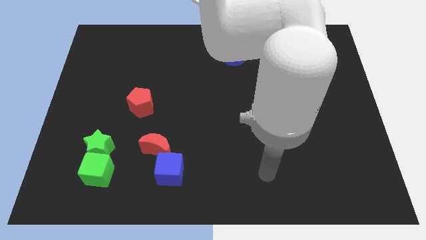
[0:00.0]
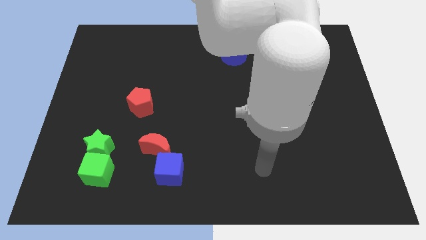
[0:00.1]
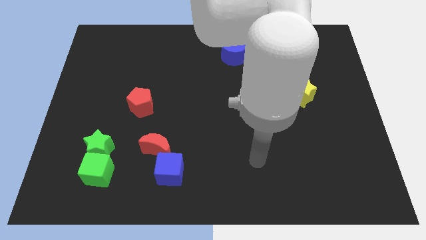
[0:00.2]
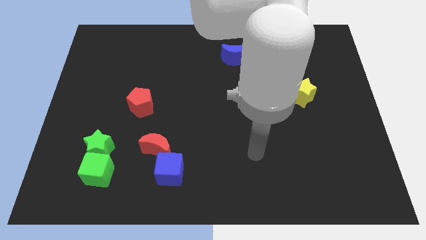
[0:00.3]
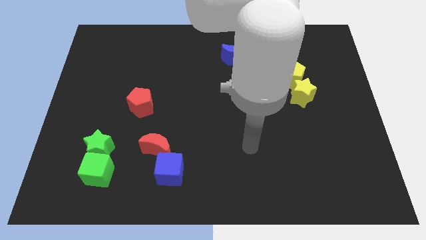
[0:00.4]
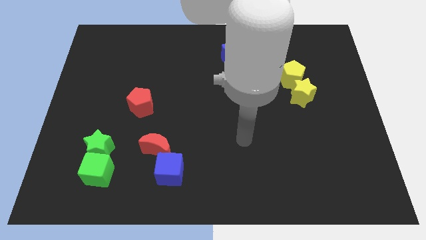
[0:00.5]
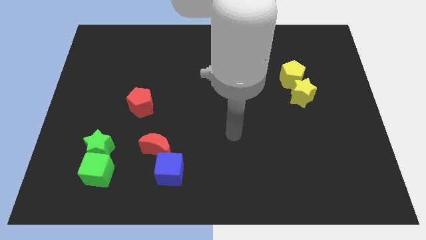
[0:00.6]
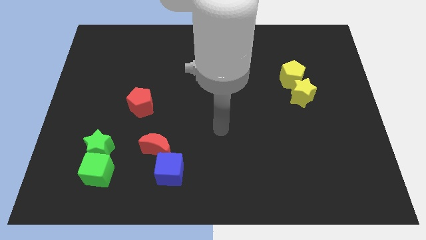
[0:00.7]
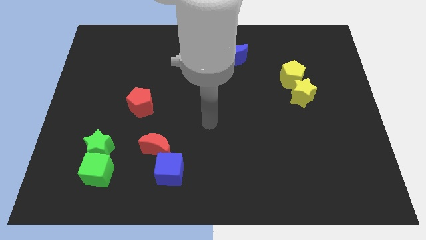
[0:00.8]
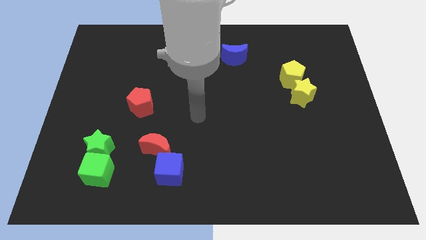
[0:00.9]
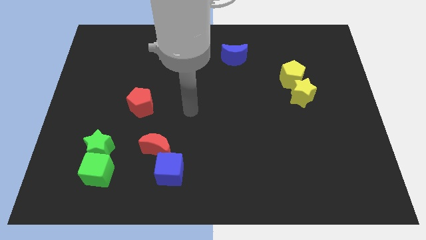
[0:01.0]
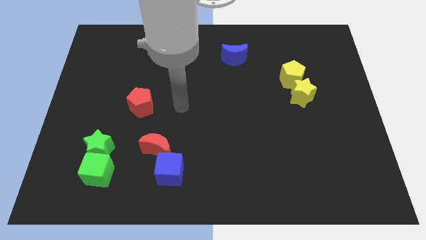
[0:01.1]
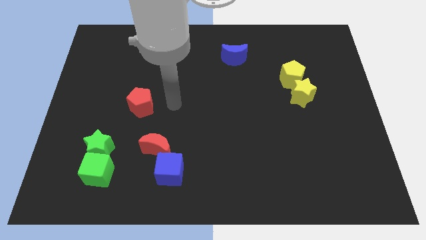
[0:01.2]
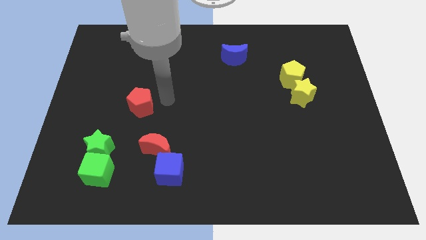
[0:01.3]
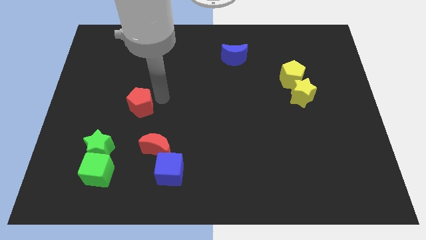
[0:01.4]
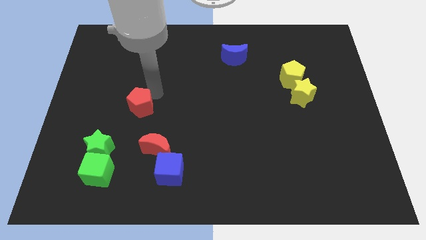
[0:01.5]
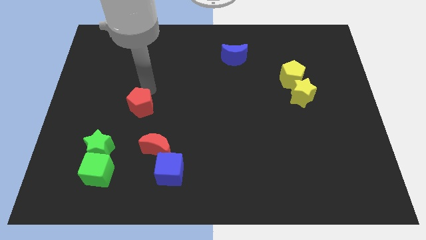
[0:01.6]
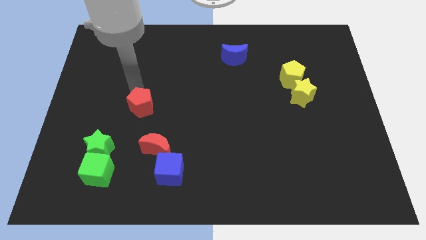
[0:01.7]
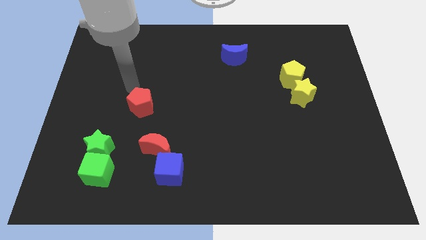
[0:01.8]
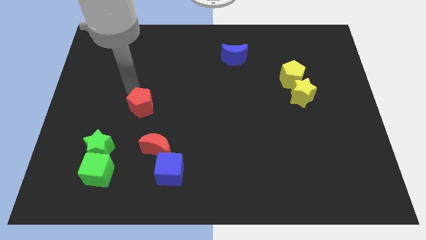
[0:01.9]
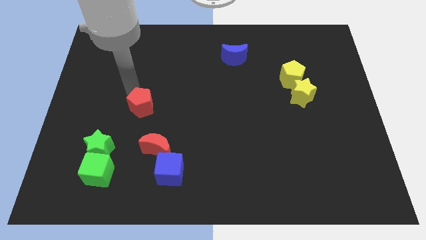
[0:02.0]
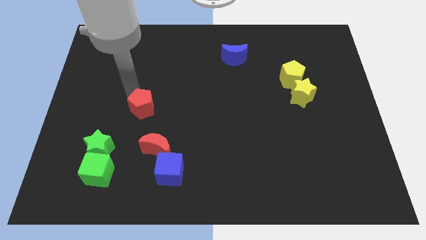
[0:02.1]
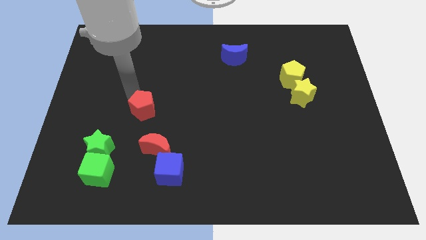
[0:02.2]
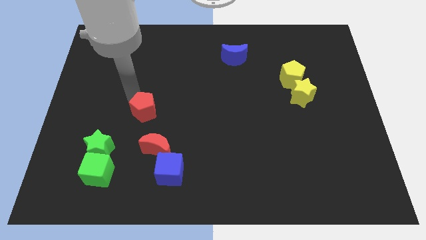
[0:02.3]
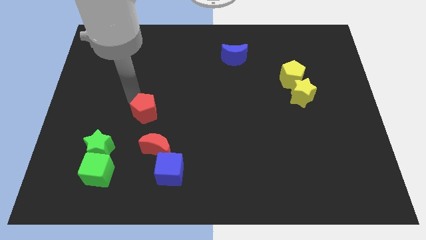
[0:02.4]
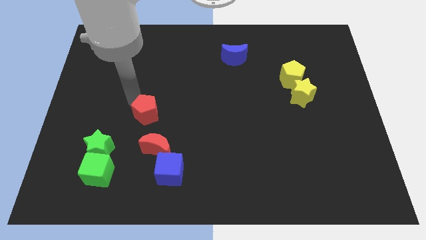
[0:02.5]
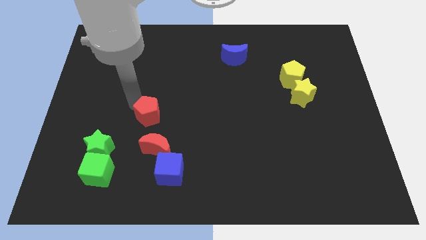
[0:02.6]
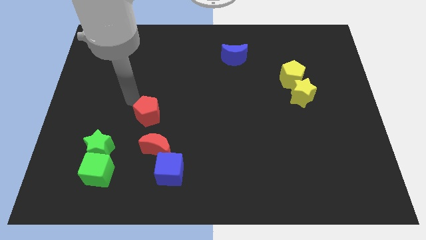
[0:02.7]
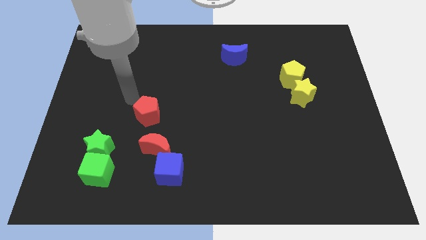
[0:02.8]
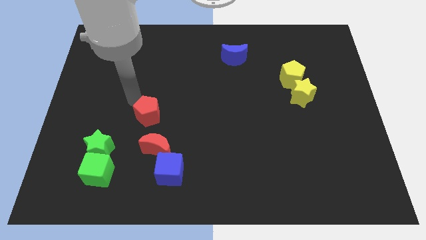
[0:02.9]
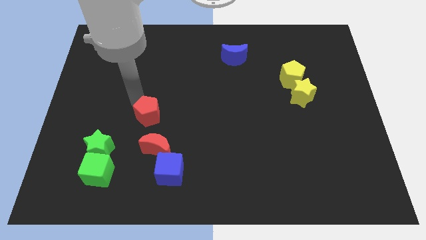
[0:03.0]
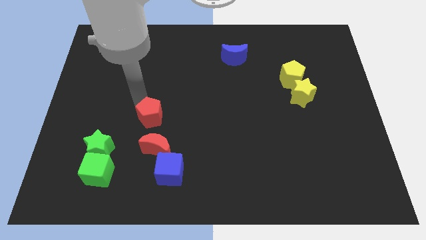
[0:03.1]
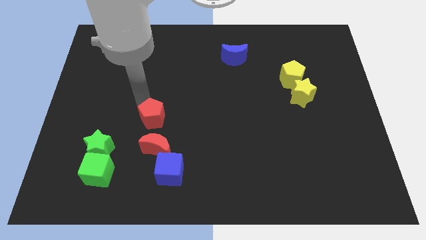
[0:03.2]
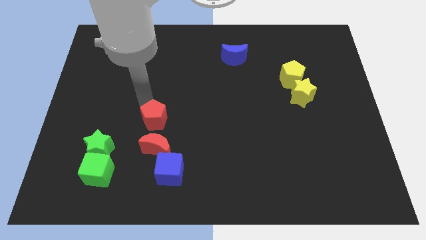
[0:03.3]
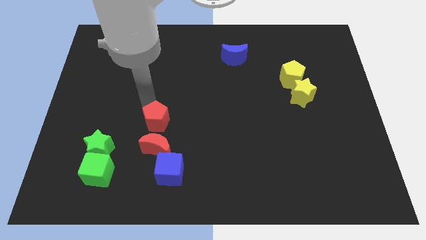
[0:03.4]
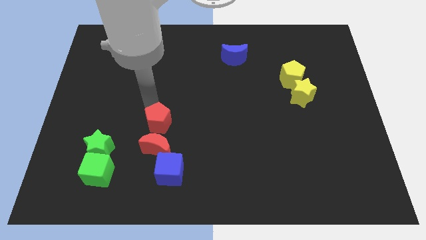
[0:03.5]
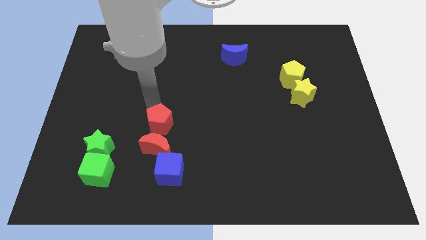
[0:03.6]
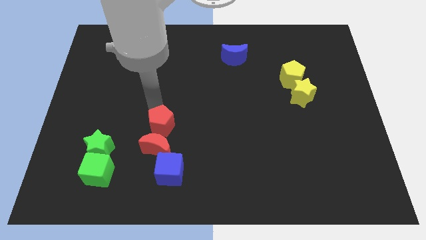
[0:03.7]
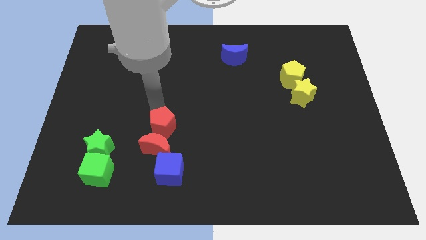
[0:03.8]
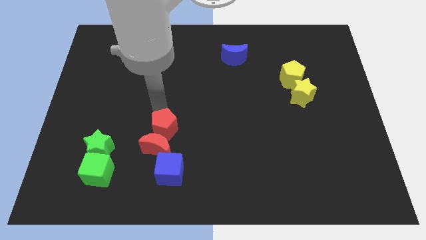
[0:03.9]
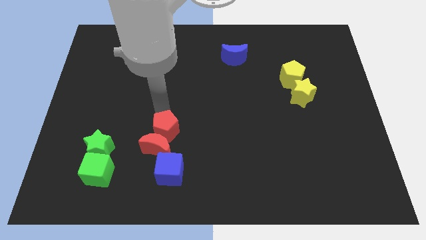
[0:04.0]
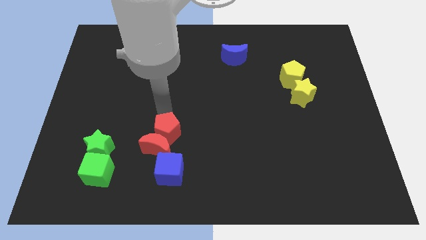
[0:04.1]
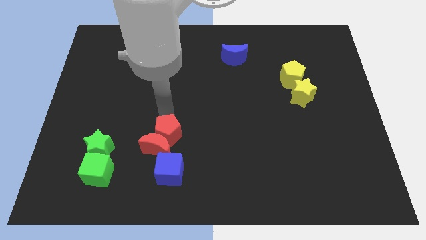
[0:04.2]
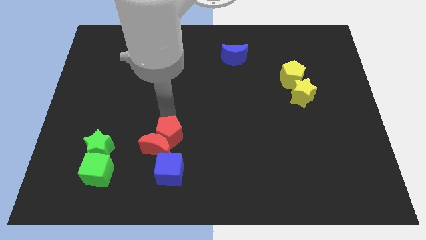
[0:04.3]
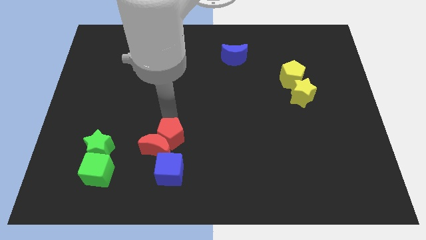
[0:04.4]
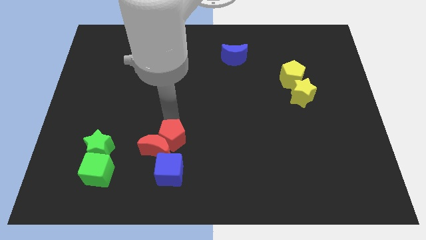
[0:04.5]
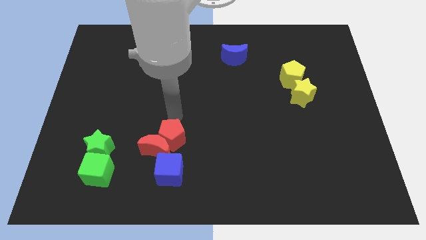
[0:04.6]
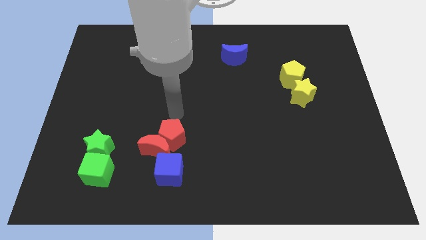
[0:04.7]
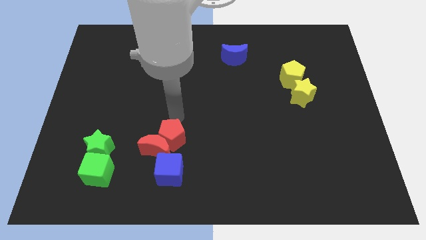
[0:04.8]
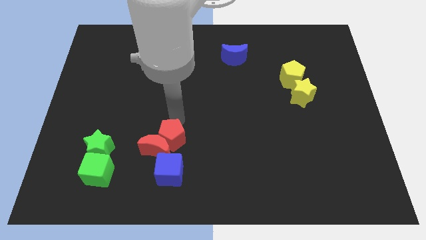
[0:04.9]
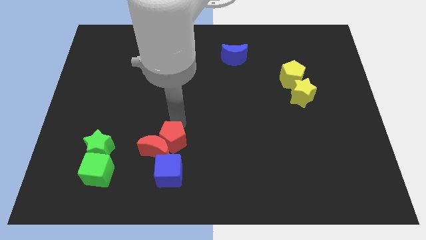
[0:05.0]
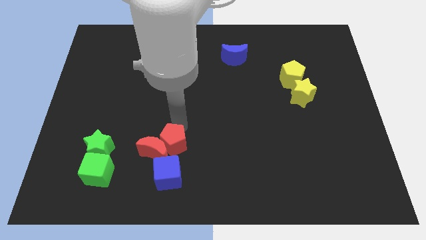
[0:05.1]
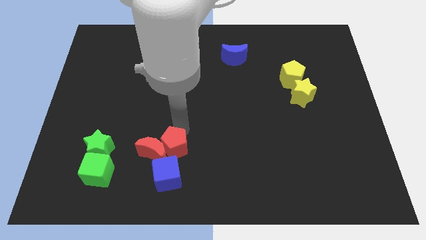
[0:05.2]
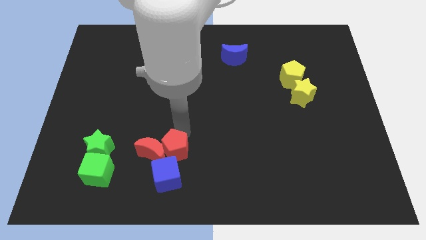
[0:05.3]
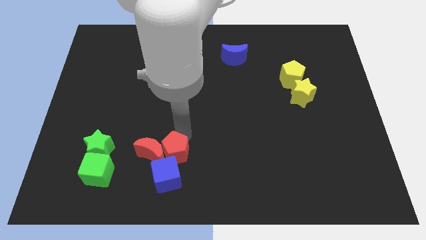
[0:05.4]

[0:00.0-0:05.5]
slide the red pentagon close to the blue cube

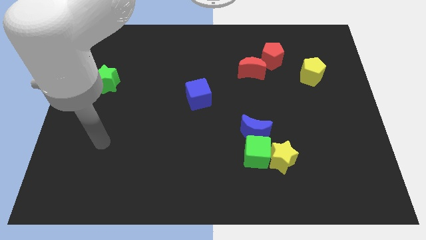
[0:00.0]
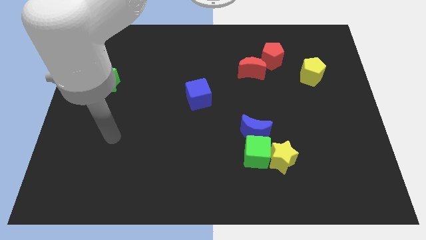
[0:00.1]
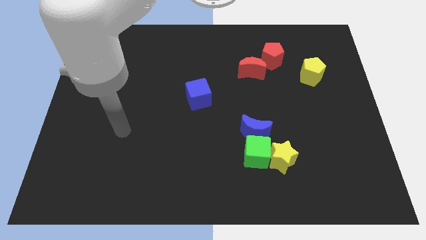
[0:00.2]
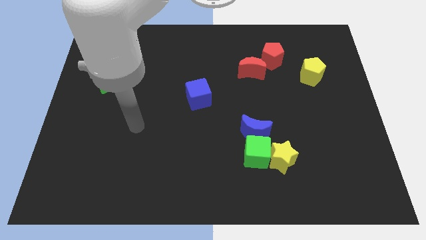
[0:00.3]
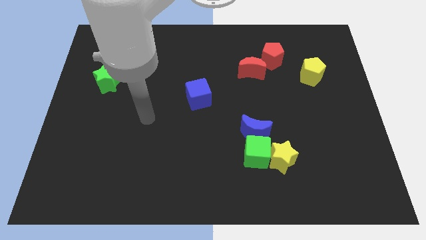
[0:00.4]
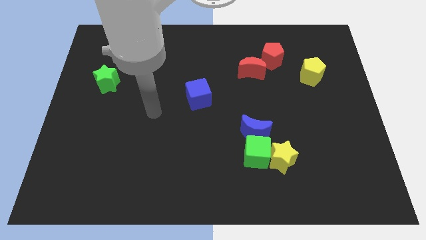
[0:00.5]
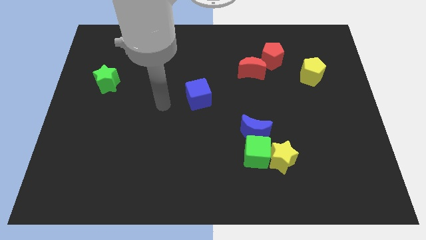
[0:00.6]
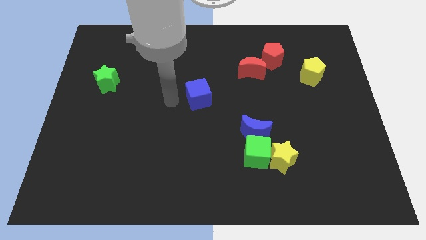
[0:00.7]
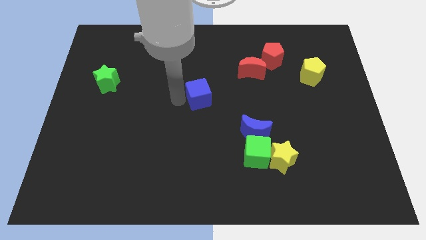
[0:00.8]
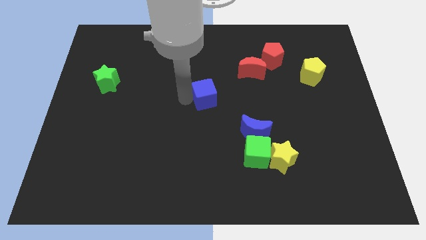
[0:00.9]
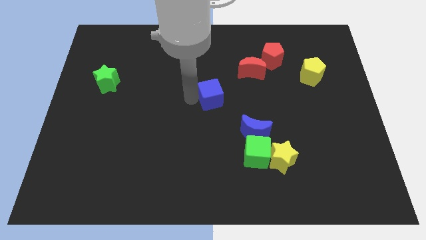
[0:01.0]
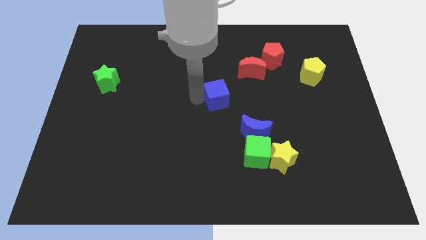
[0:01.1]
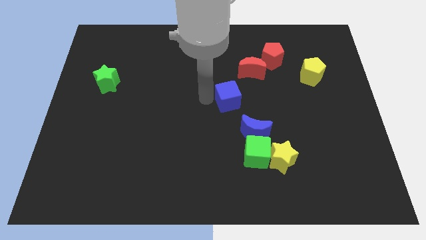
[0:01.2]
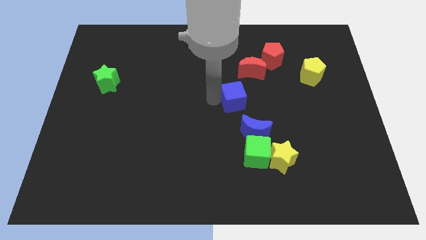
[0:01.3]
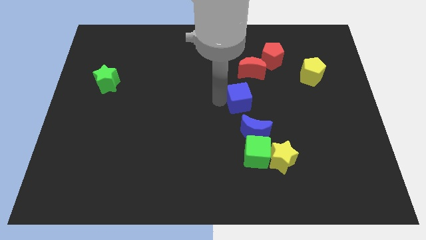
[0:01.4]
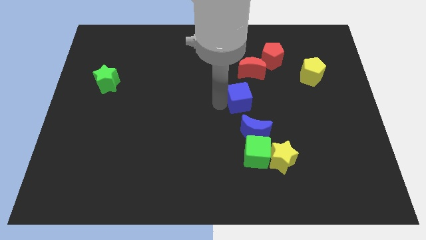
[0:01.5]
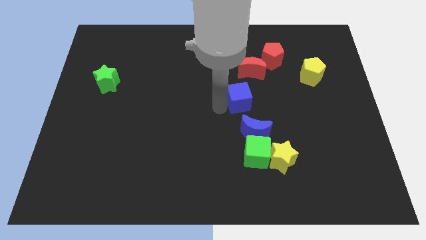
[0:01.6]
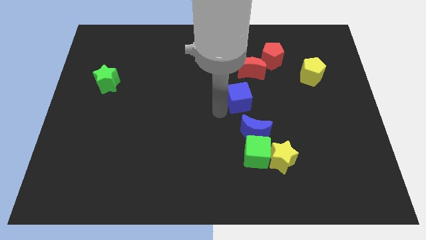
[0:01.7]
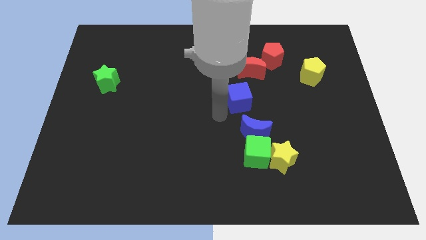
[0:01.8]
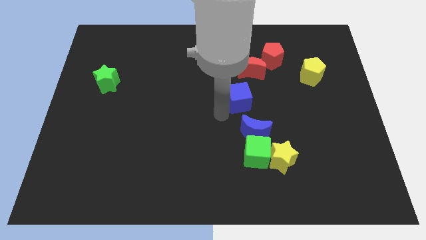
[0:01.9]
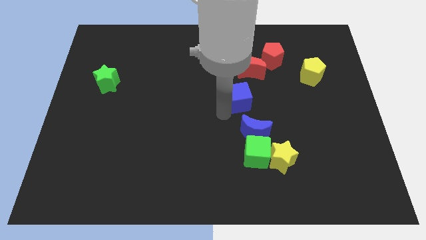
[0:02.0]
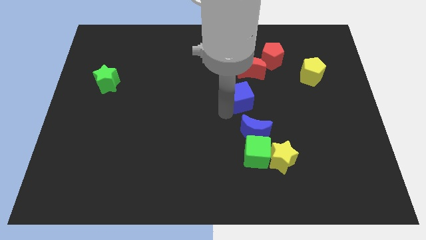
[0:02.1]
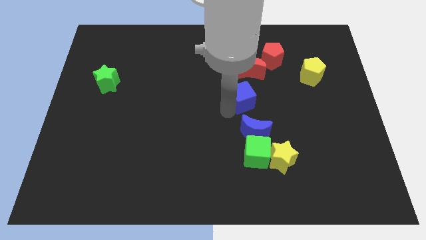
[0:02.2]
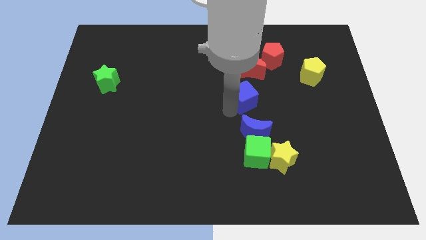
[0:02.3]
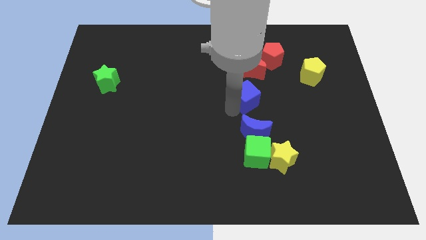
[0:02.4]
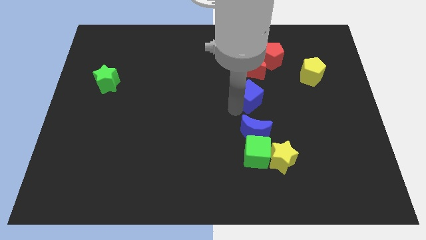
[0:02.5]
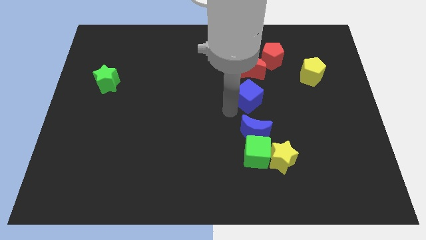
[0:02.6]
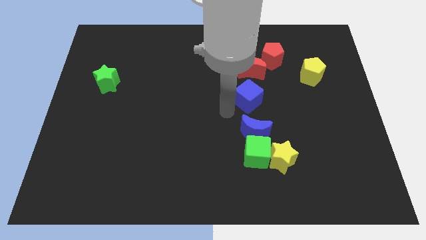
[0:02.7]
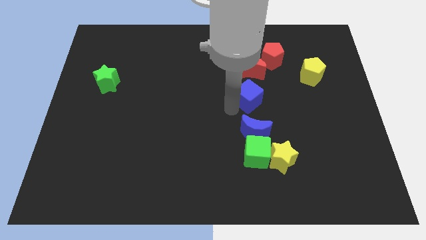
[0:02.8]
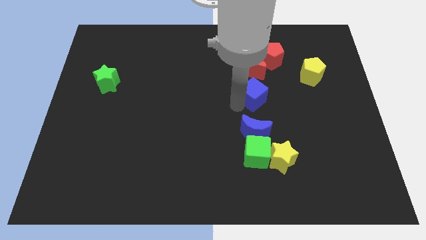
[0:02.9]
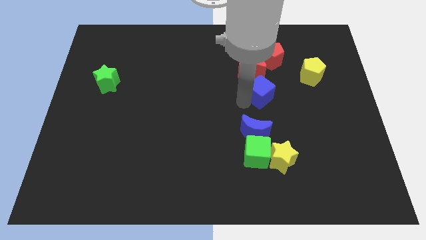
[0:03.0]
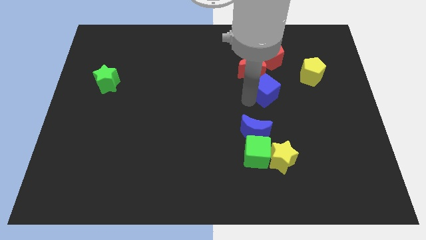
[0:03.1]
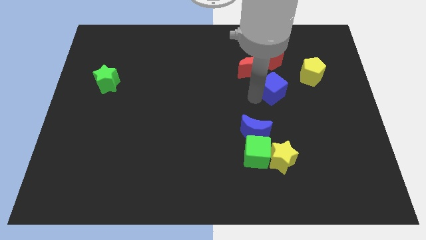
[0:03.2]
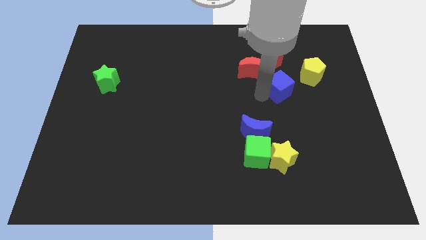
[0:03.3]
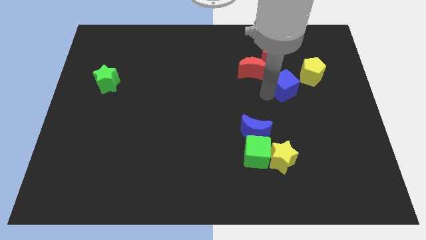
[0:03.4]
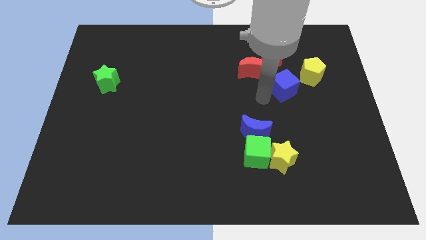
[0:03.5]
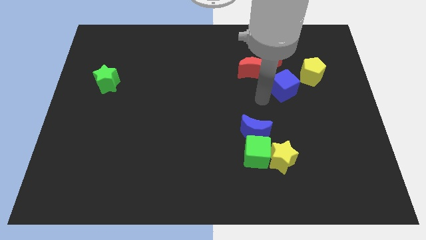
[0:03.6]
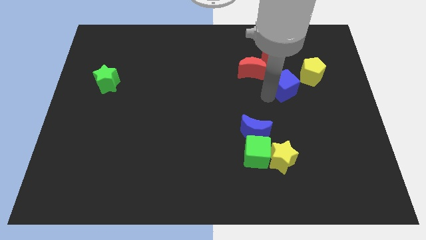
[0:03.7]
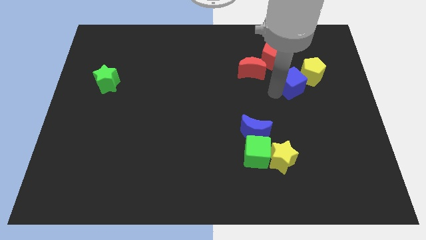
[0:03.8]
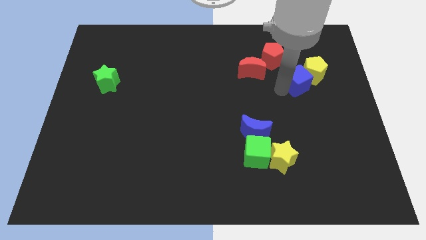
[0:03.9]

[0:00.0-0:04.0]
move the blue cube towards the yellow pentagon
